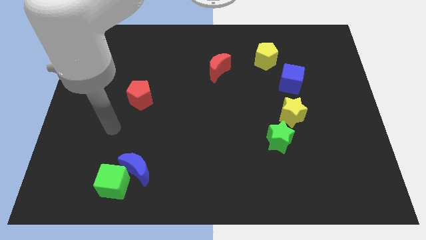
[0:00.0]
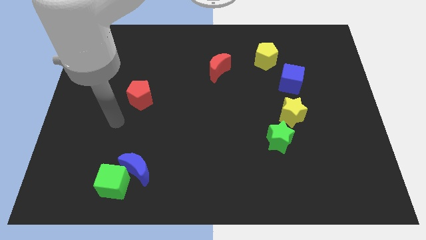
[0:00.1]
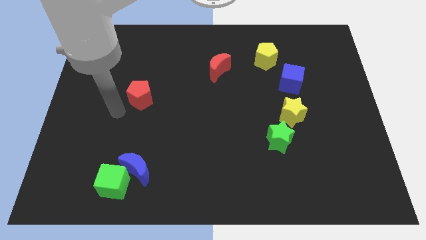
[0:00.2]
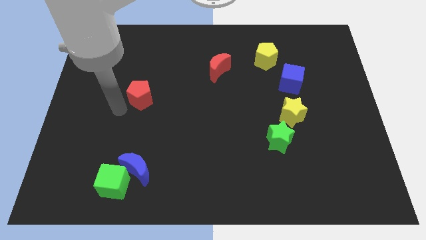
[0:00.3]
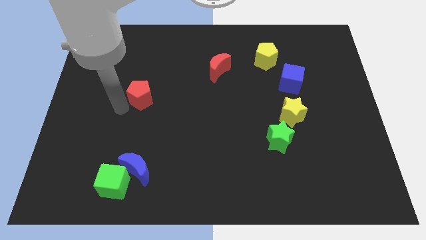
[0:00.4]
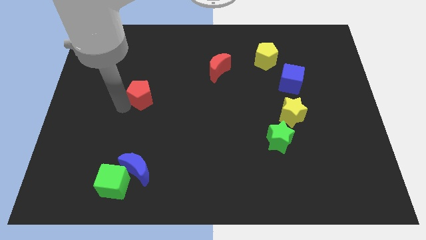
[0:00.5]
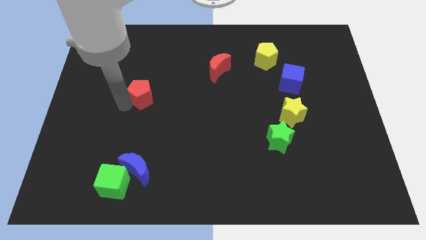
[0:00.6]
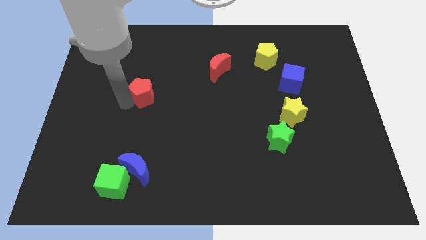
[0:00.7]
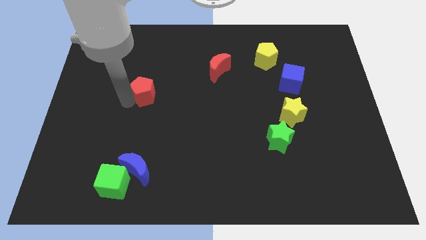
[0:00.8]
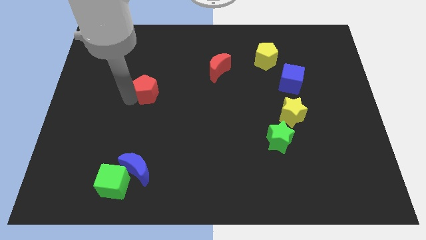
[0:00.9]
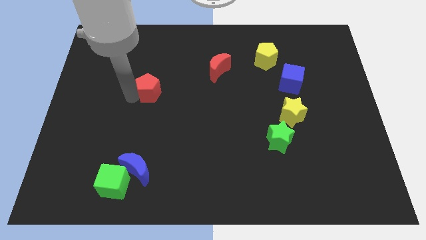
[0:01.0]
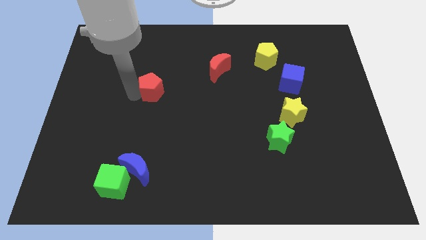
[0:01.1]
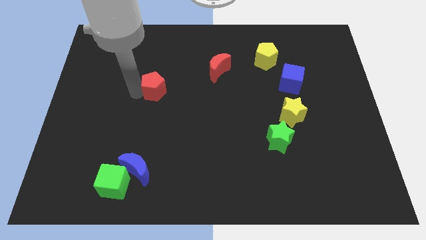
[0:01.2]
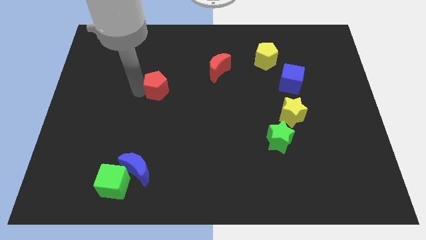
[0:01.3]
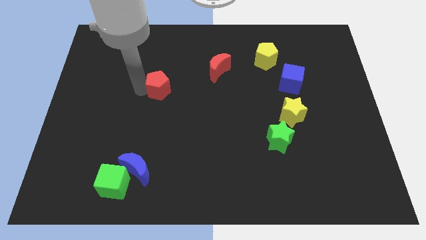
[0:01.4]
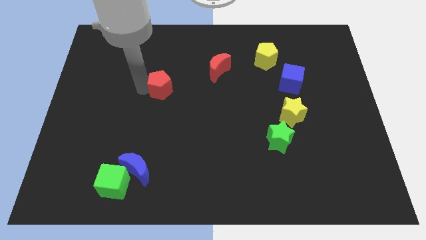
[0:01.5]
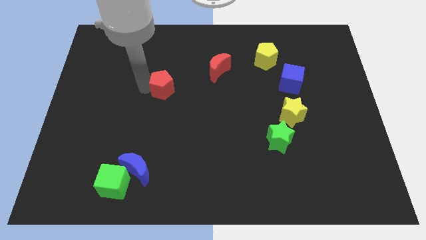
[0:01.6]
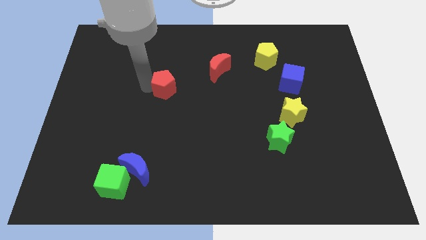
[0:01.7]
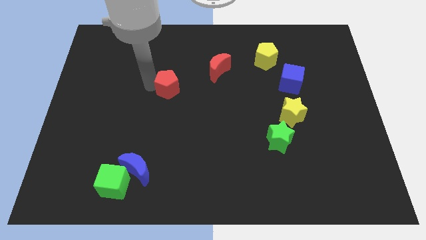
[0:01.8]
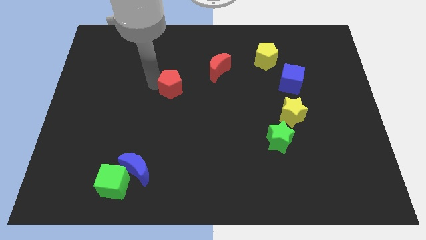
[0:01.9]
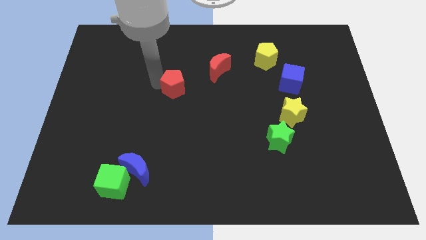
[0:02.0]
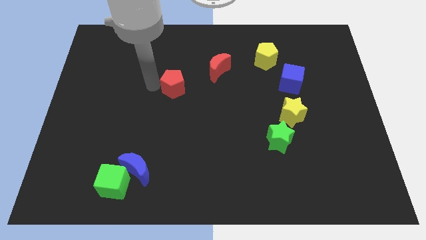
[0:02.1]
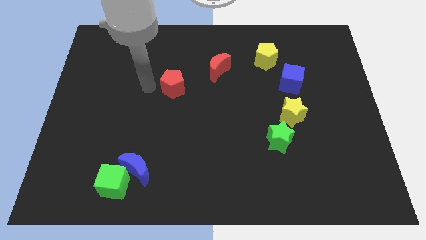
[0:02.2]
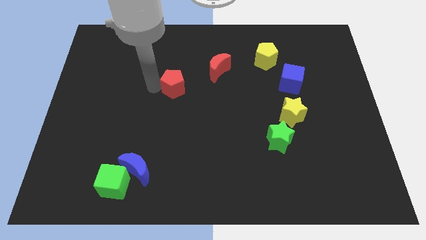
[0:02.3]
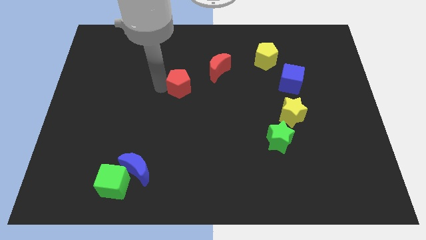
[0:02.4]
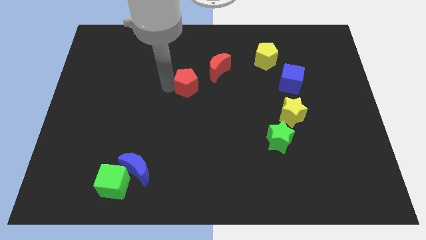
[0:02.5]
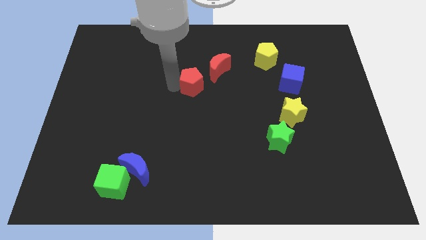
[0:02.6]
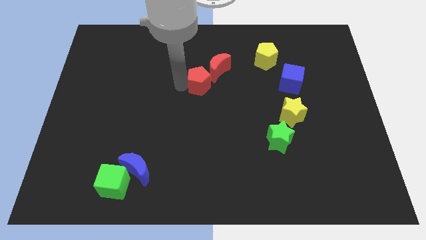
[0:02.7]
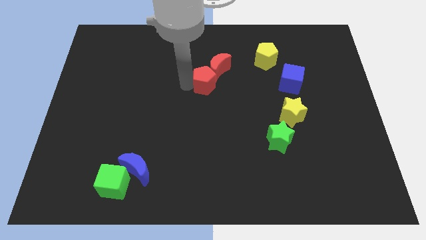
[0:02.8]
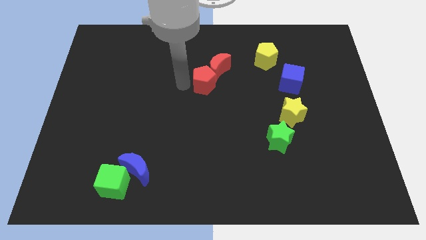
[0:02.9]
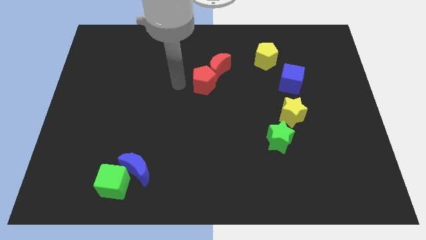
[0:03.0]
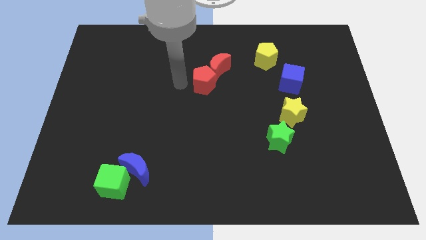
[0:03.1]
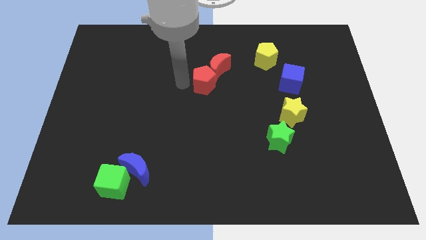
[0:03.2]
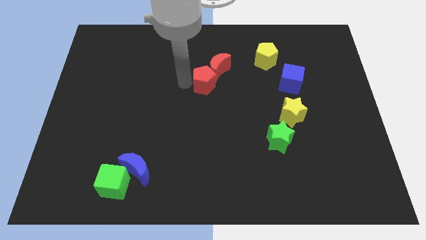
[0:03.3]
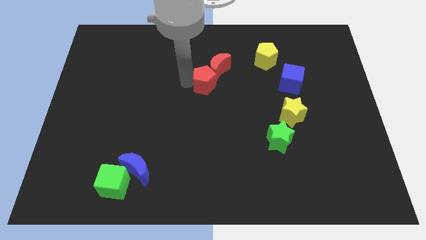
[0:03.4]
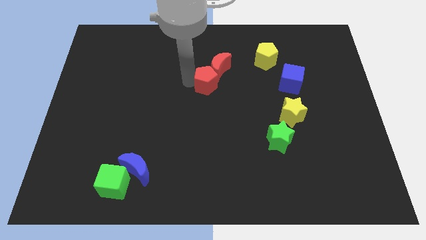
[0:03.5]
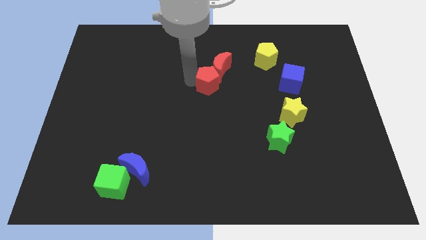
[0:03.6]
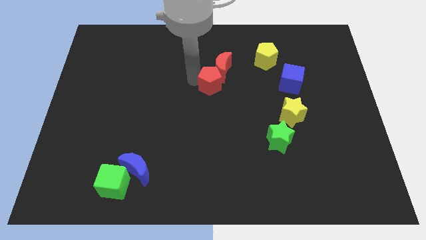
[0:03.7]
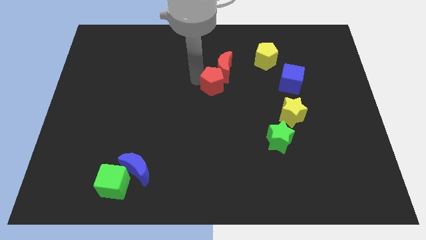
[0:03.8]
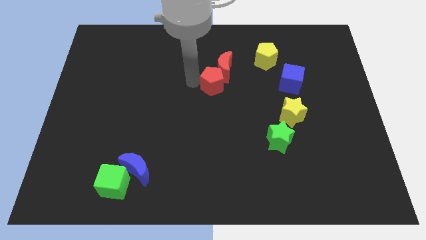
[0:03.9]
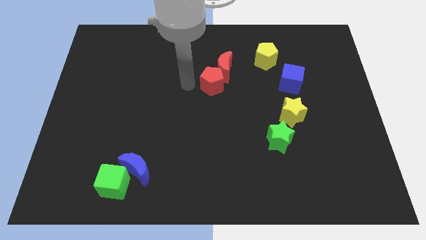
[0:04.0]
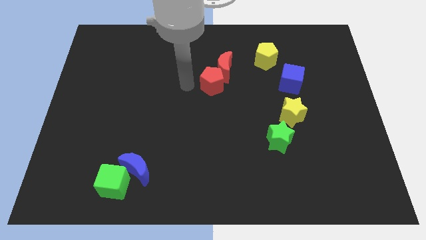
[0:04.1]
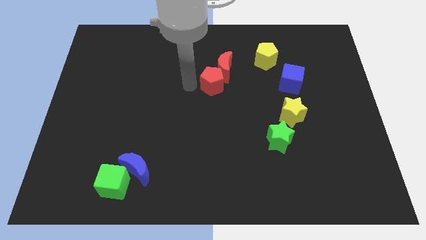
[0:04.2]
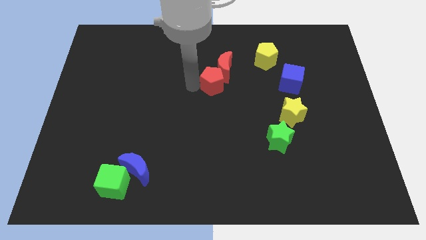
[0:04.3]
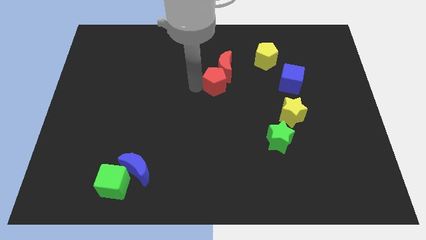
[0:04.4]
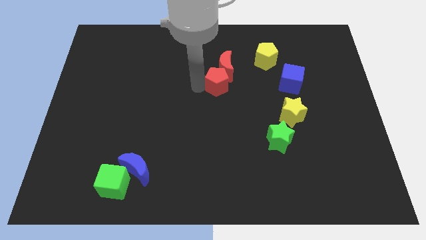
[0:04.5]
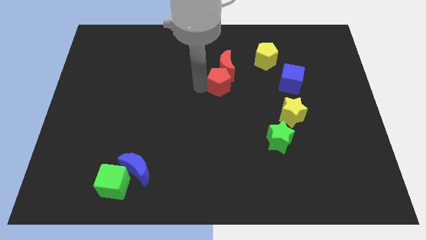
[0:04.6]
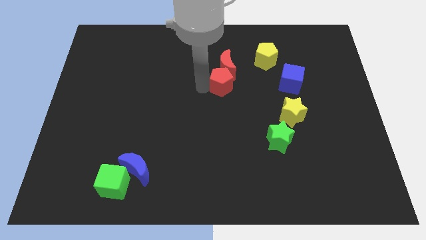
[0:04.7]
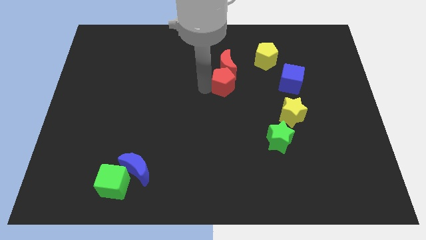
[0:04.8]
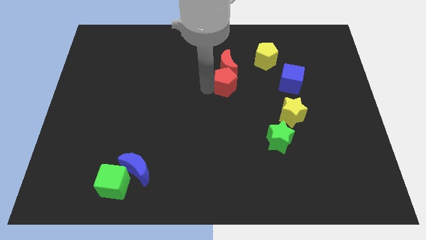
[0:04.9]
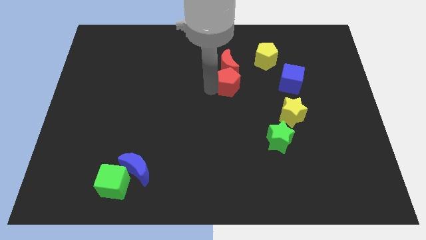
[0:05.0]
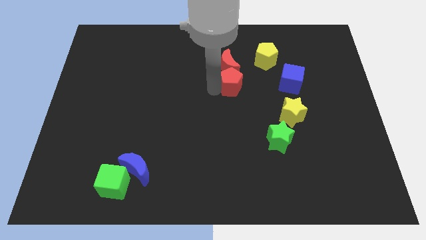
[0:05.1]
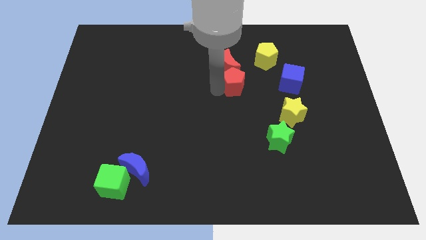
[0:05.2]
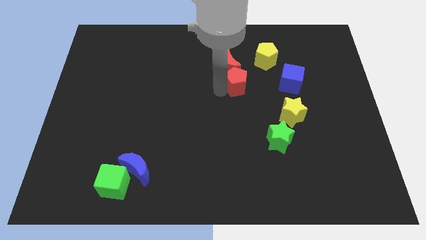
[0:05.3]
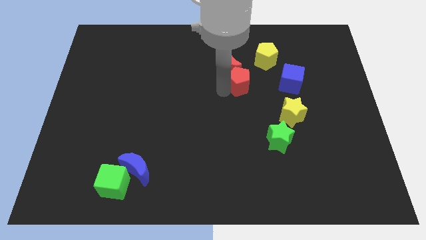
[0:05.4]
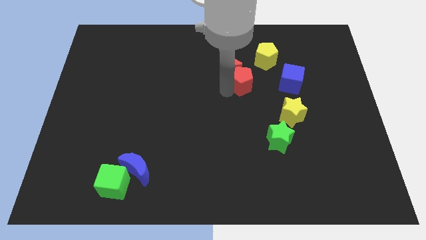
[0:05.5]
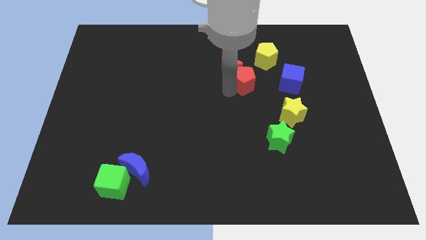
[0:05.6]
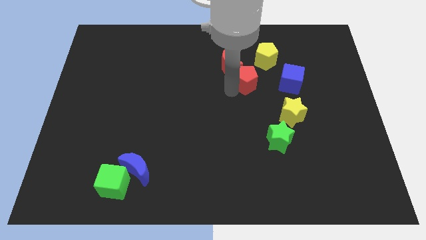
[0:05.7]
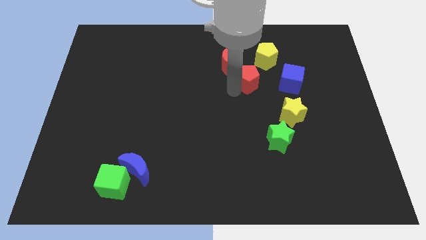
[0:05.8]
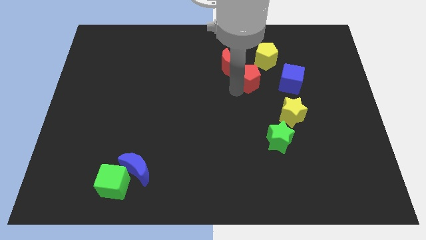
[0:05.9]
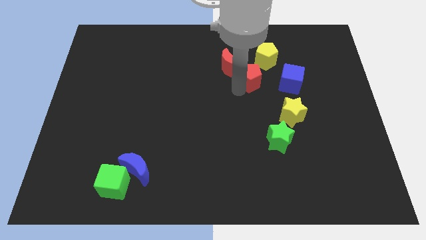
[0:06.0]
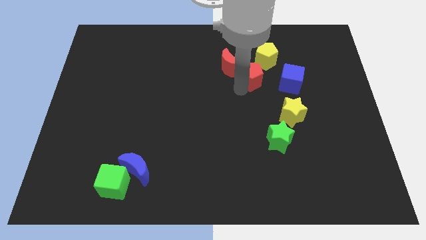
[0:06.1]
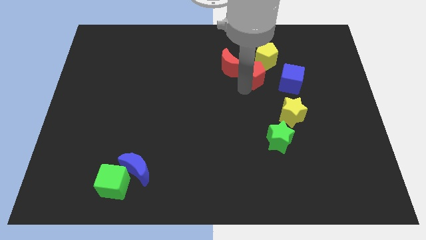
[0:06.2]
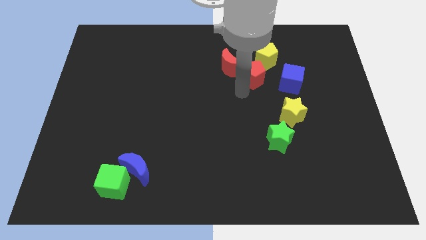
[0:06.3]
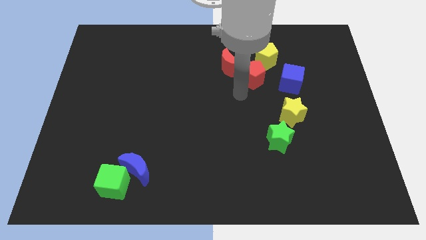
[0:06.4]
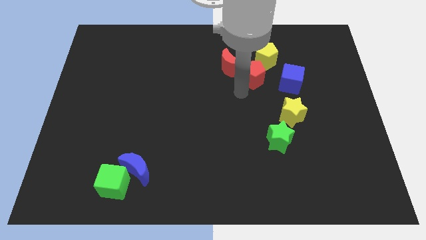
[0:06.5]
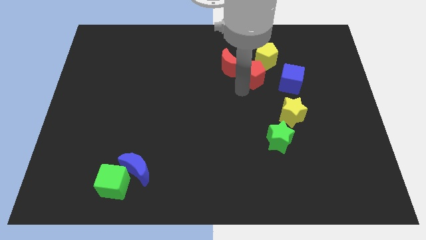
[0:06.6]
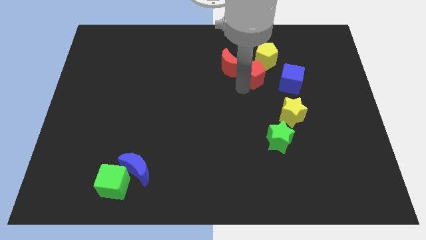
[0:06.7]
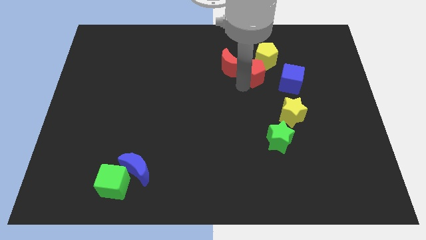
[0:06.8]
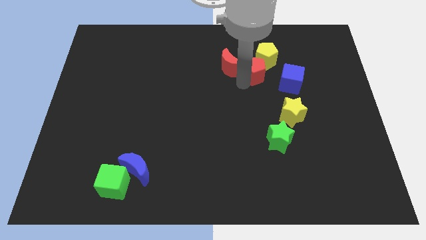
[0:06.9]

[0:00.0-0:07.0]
move the red pentagon close to the yellow pentagon
